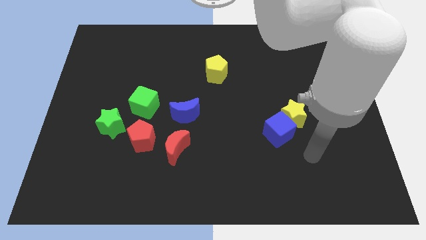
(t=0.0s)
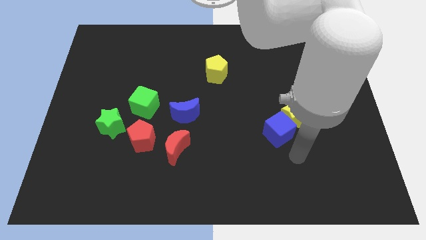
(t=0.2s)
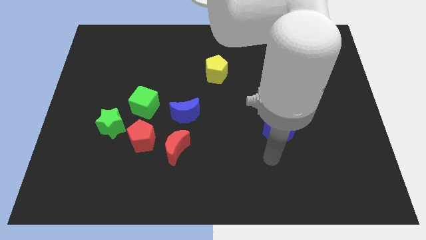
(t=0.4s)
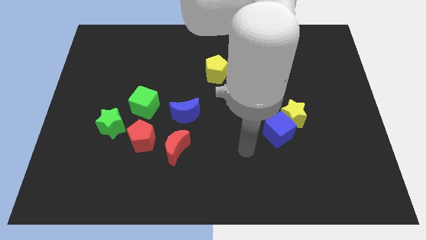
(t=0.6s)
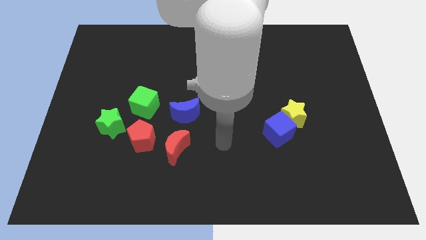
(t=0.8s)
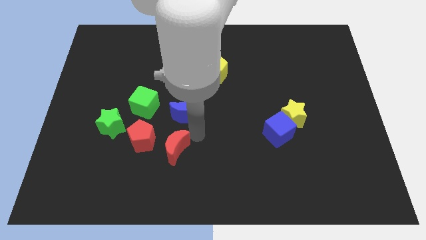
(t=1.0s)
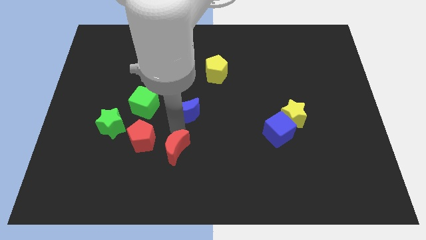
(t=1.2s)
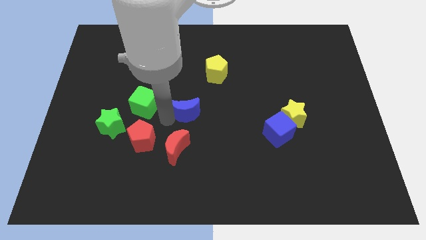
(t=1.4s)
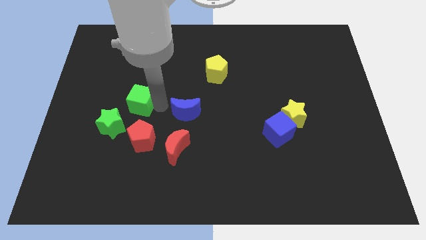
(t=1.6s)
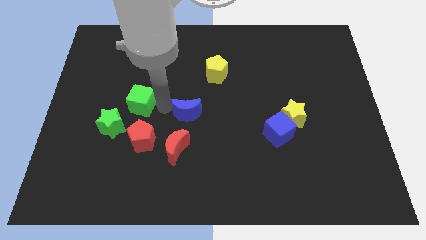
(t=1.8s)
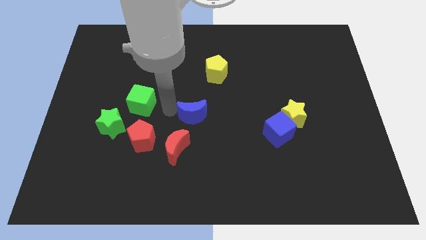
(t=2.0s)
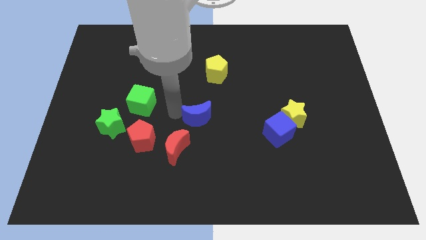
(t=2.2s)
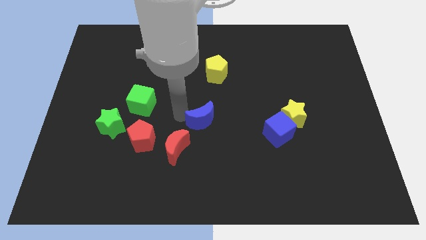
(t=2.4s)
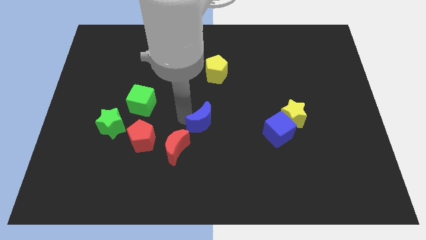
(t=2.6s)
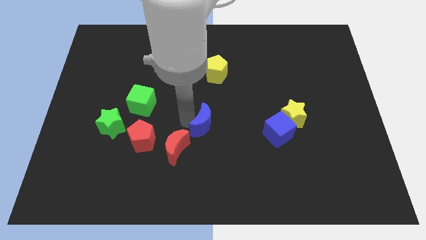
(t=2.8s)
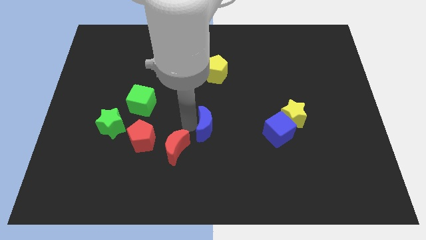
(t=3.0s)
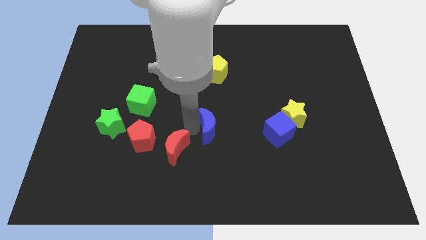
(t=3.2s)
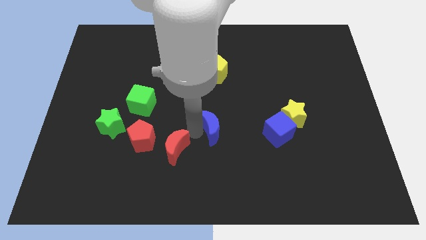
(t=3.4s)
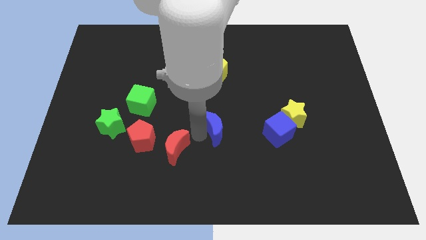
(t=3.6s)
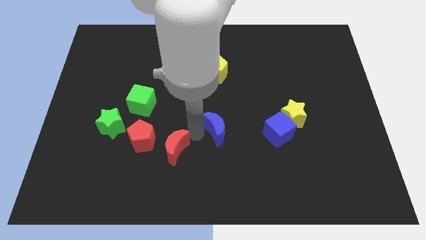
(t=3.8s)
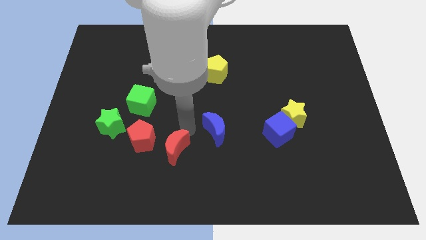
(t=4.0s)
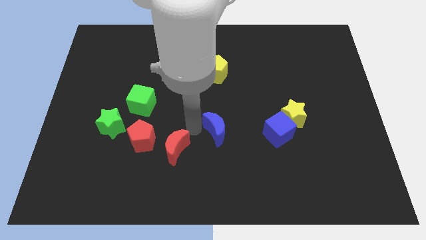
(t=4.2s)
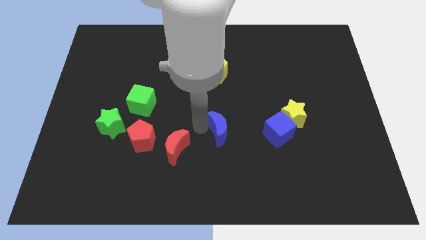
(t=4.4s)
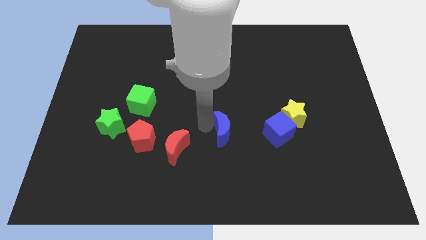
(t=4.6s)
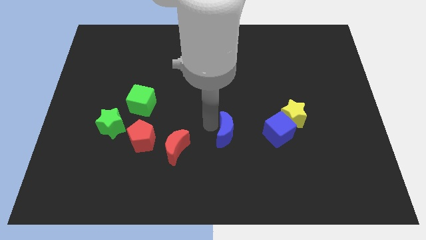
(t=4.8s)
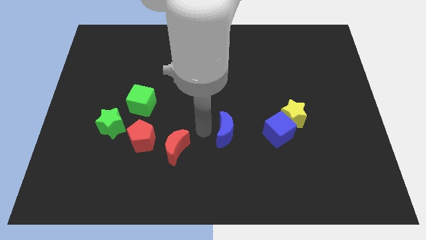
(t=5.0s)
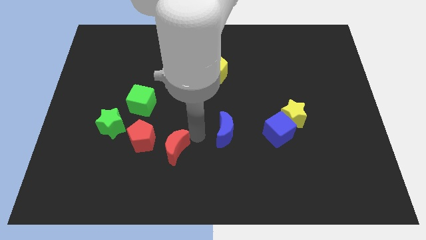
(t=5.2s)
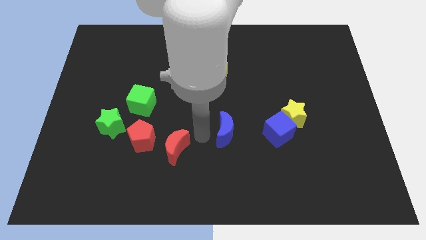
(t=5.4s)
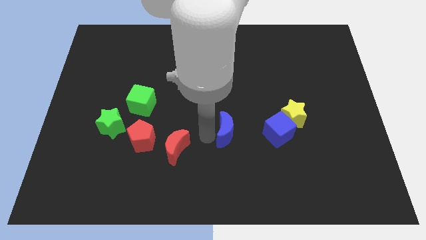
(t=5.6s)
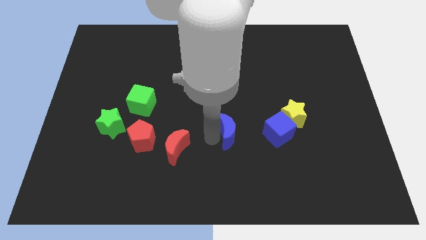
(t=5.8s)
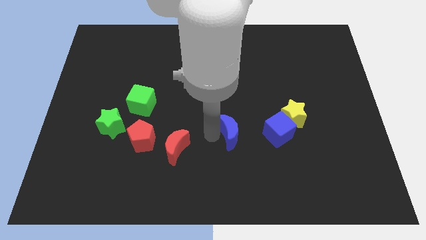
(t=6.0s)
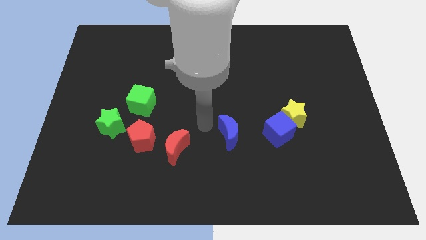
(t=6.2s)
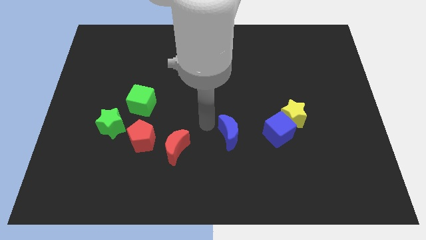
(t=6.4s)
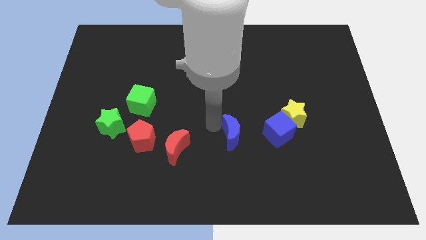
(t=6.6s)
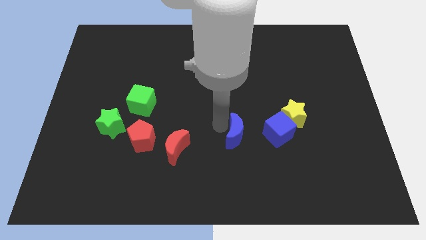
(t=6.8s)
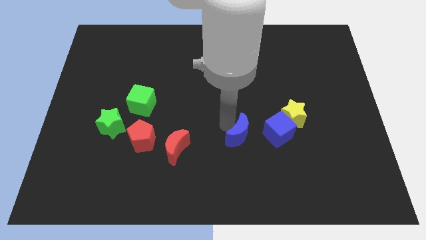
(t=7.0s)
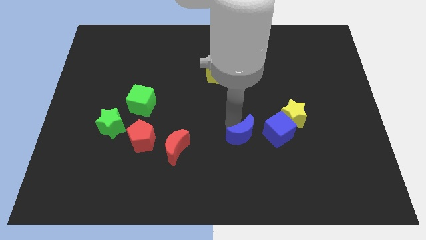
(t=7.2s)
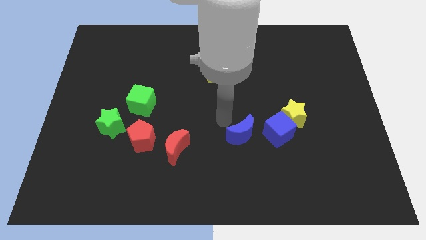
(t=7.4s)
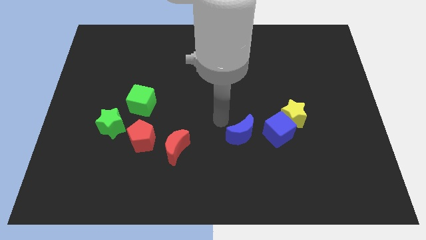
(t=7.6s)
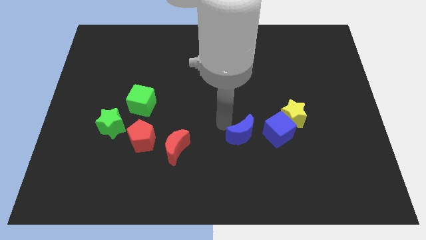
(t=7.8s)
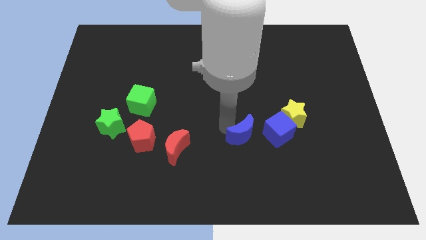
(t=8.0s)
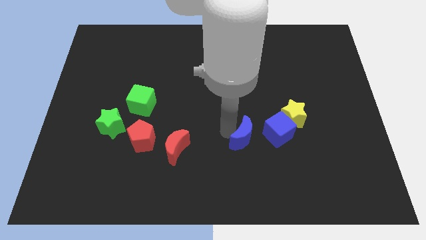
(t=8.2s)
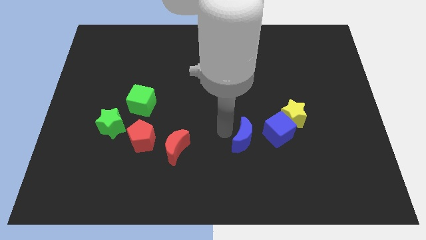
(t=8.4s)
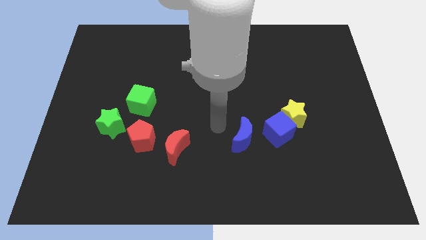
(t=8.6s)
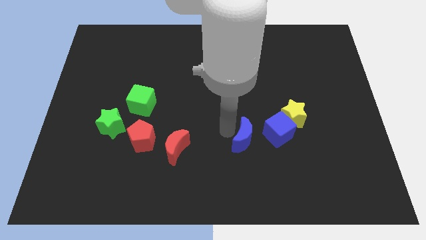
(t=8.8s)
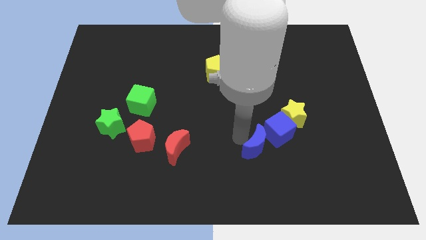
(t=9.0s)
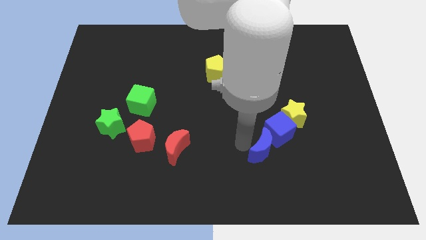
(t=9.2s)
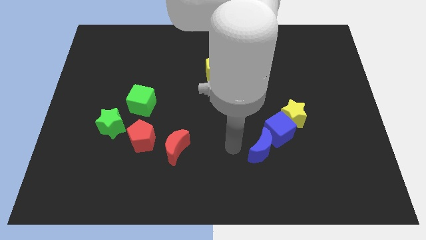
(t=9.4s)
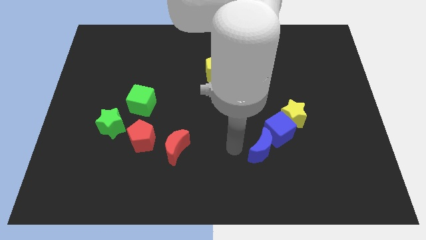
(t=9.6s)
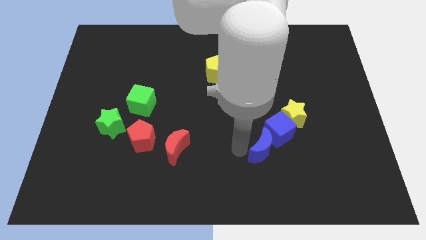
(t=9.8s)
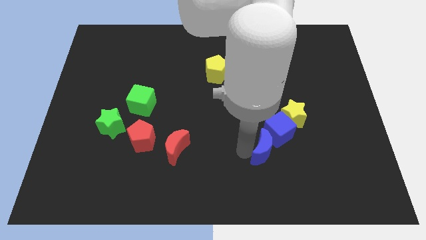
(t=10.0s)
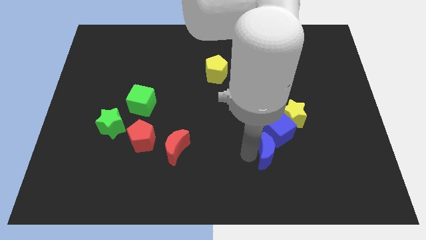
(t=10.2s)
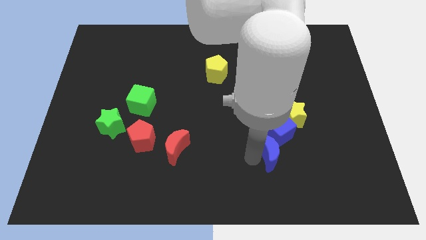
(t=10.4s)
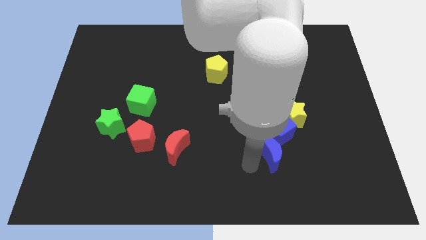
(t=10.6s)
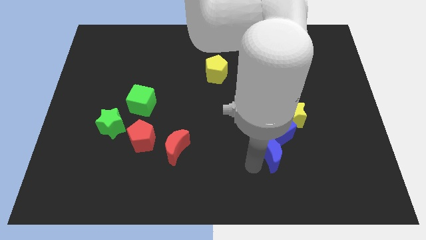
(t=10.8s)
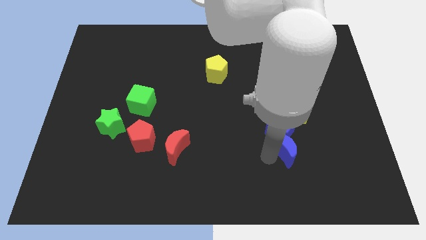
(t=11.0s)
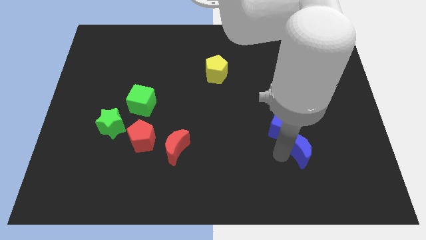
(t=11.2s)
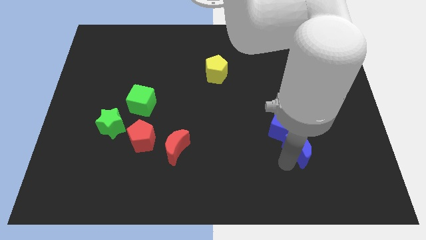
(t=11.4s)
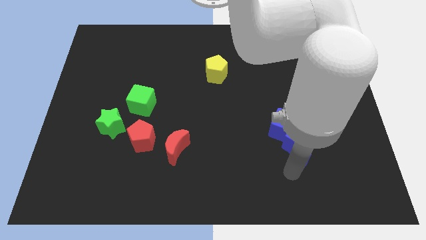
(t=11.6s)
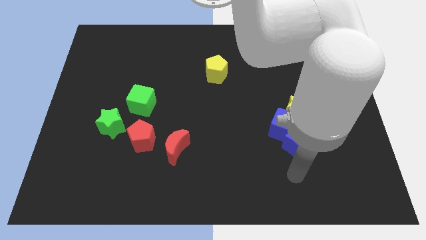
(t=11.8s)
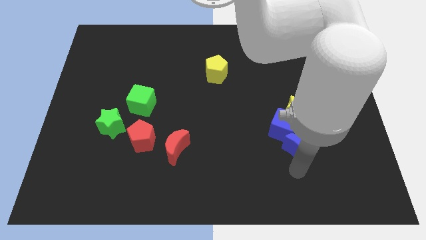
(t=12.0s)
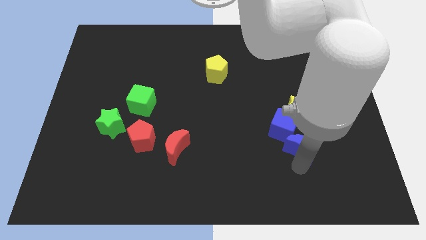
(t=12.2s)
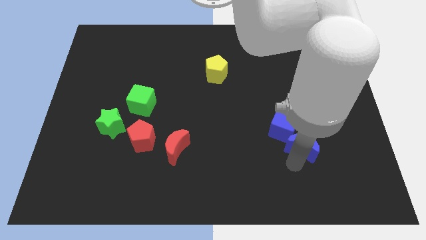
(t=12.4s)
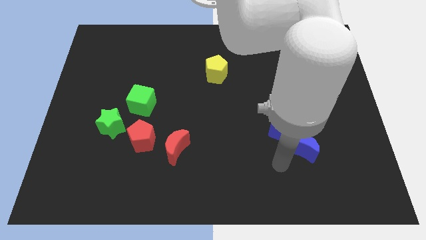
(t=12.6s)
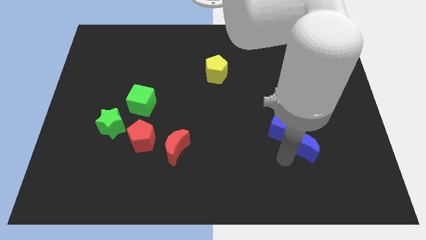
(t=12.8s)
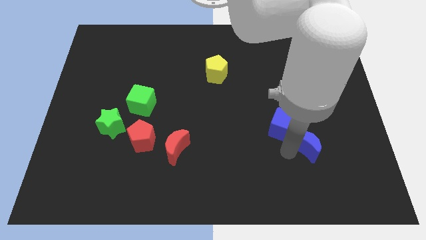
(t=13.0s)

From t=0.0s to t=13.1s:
push the blue moon to the right side of the blue cube
